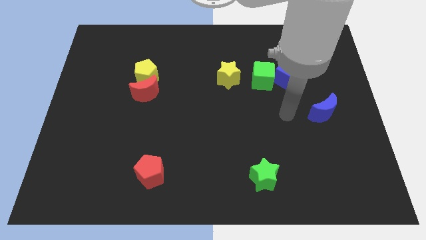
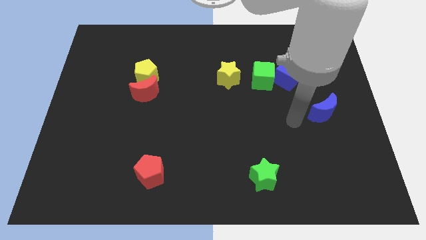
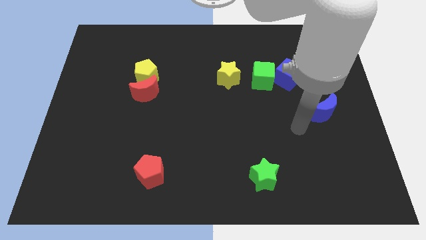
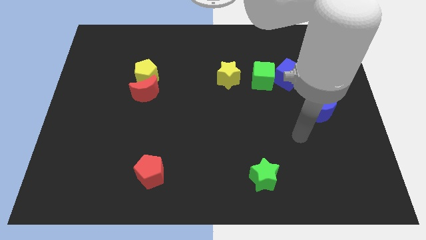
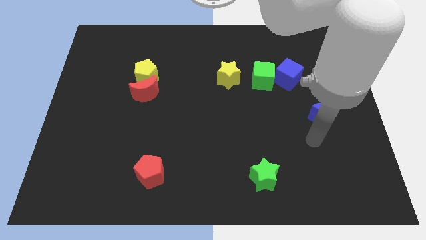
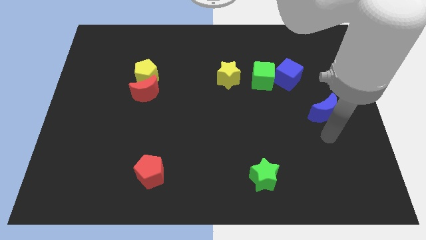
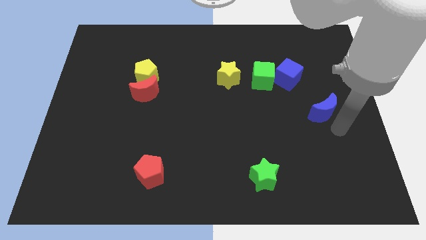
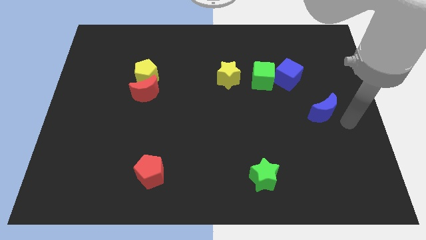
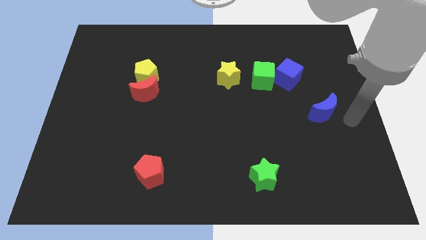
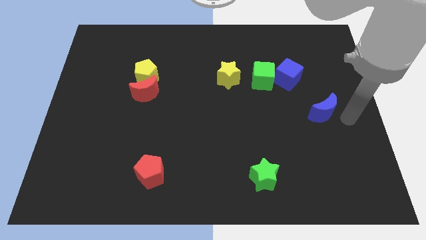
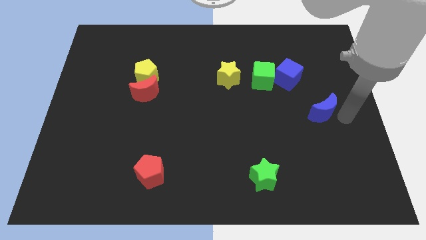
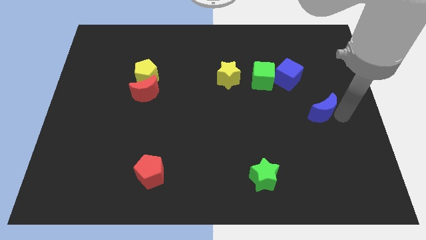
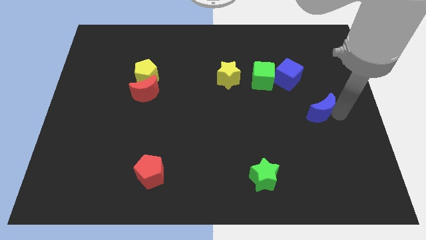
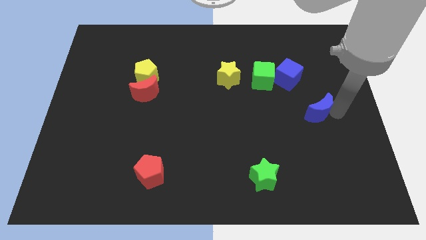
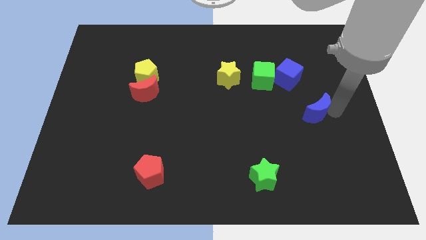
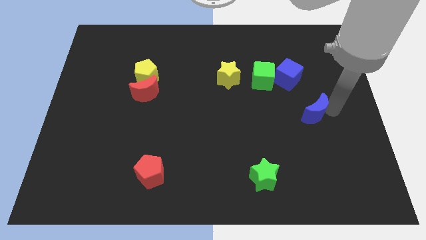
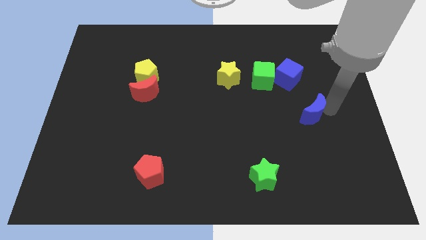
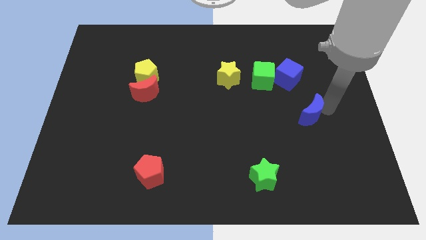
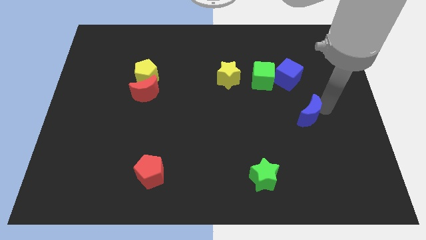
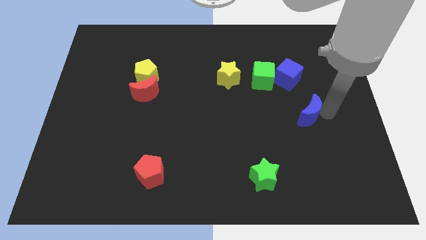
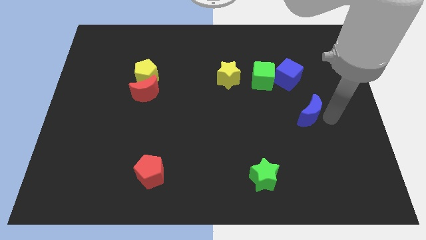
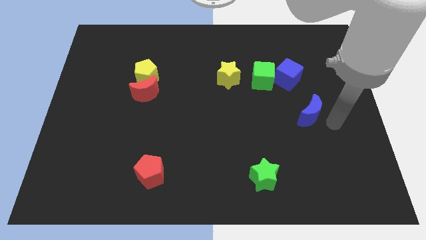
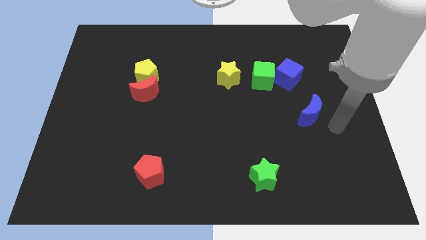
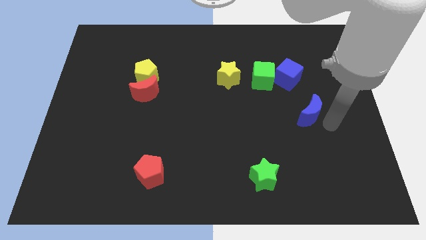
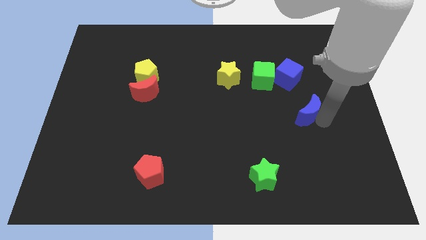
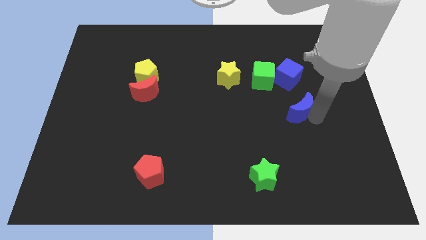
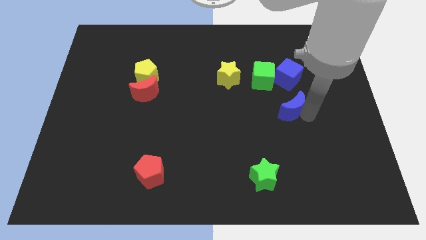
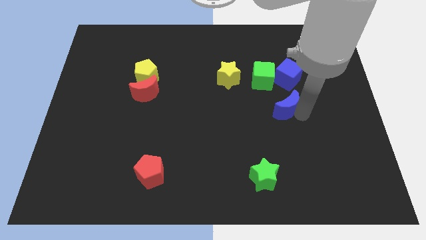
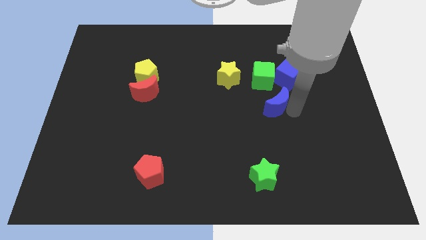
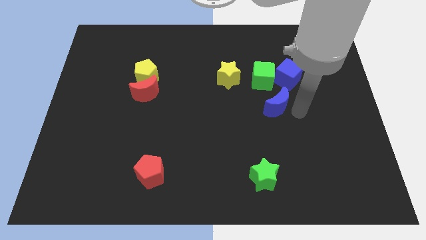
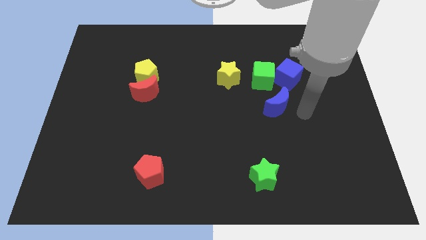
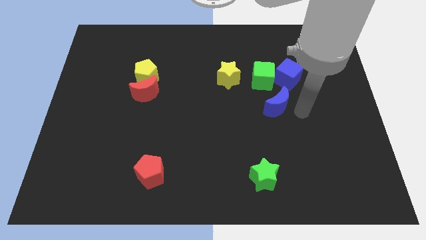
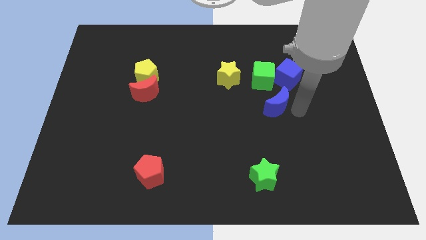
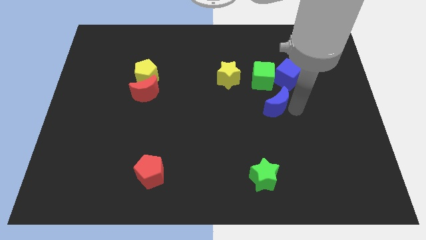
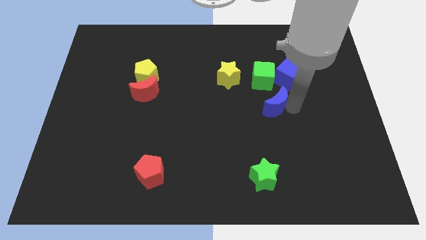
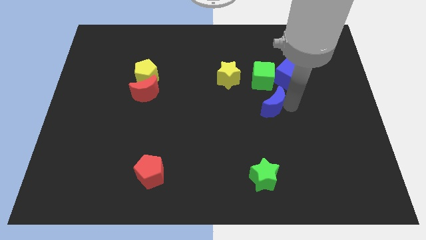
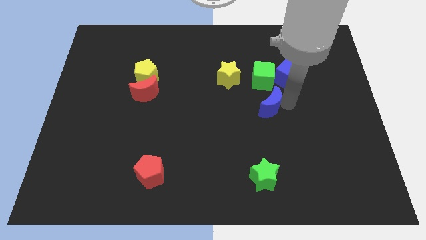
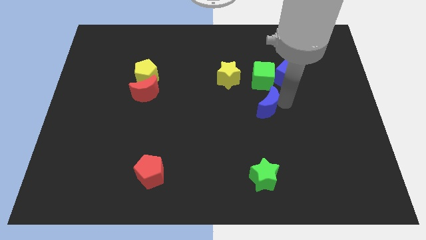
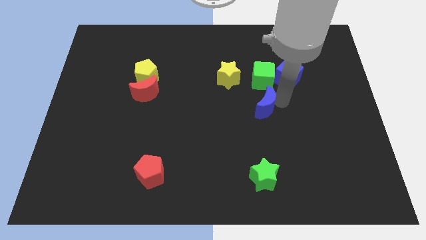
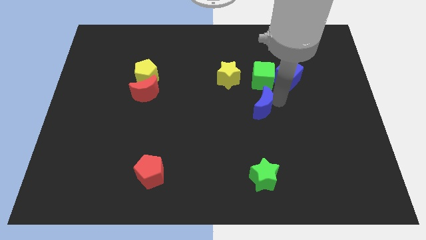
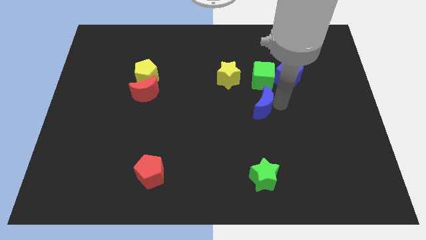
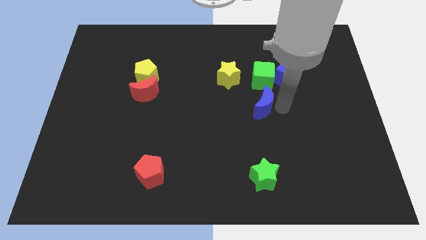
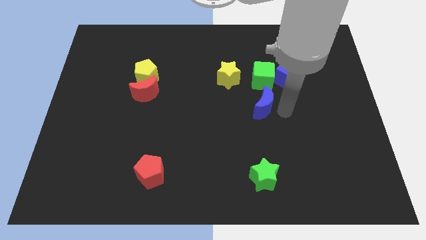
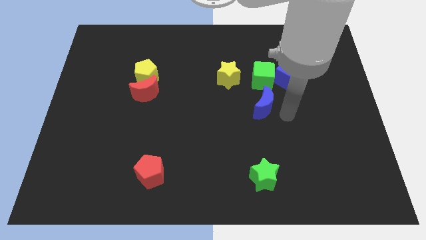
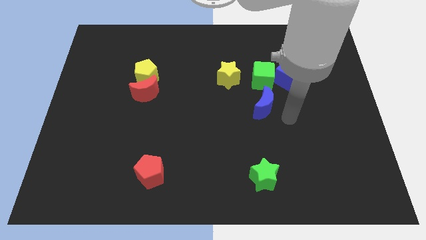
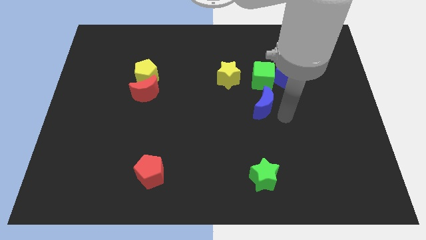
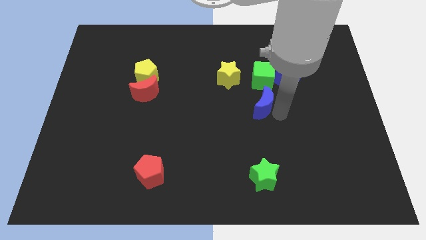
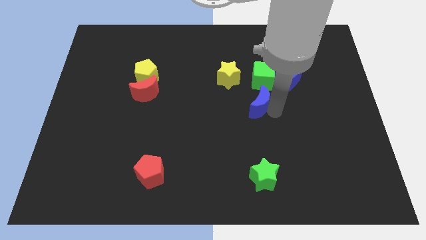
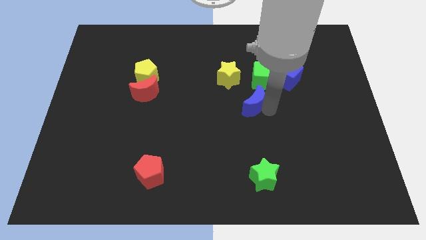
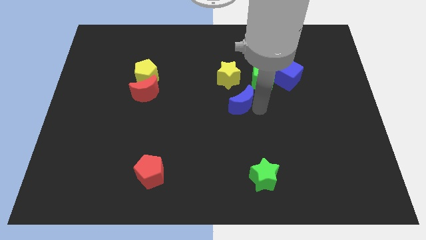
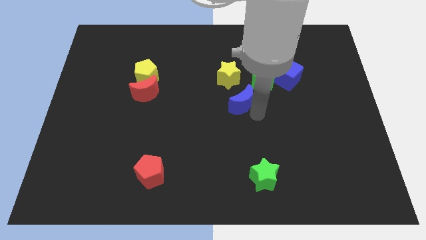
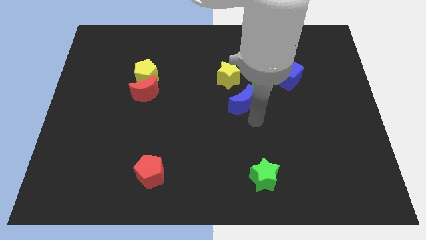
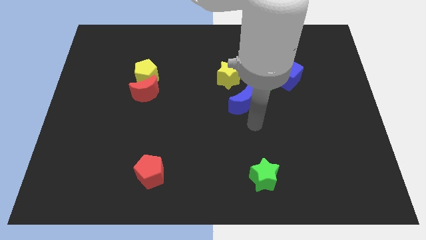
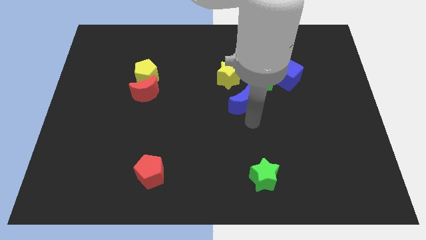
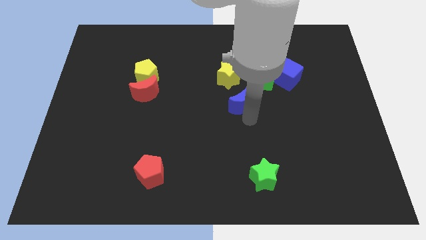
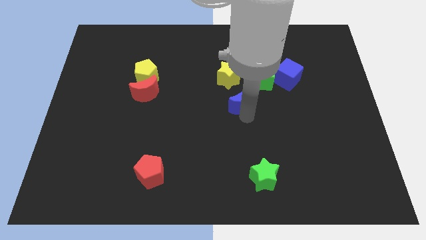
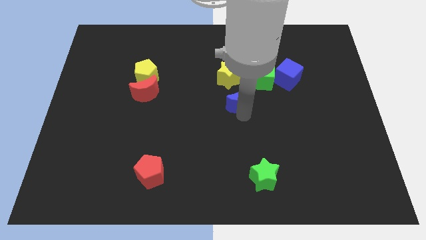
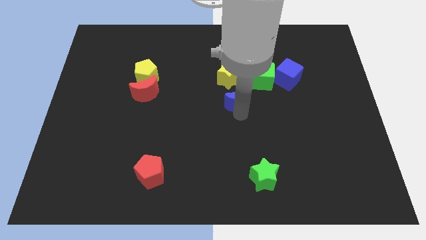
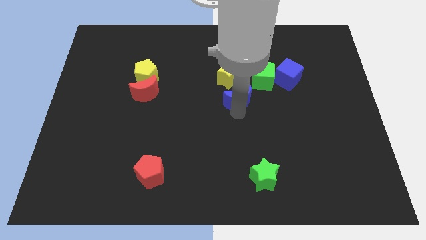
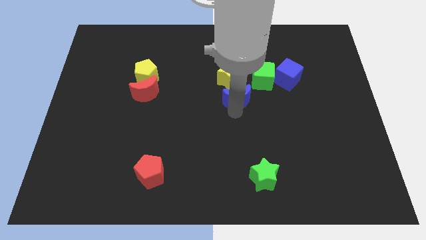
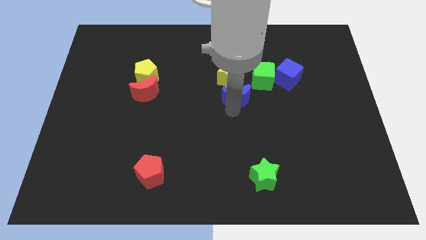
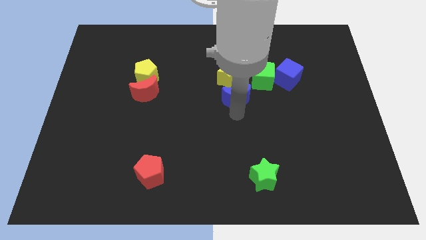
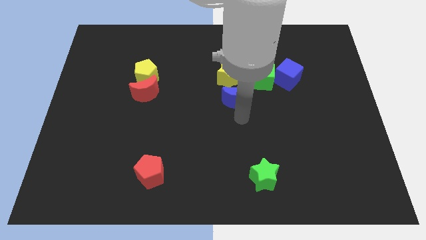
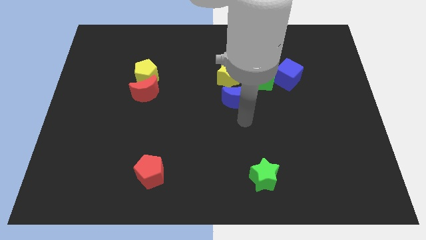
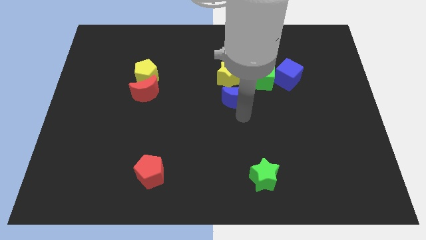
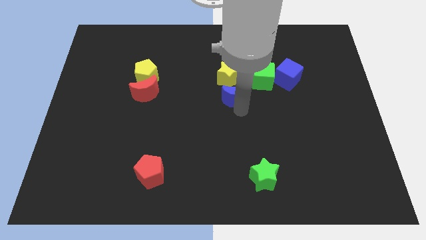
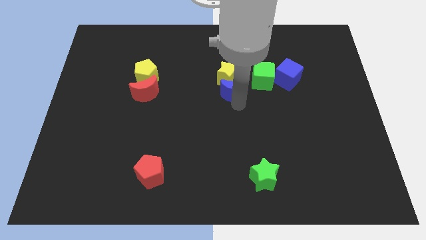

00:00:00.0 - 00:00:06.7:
slide the blue moon to the yellow star
